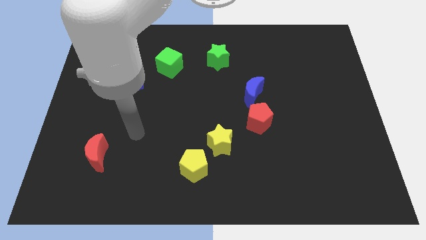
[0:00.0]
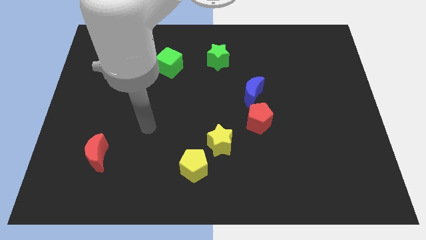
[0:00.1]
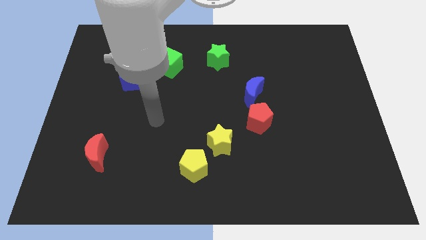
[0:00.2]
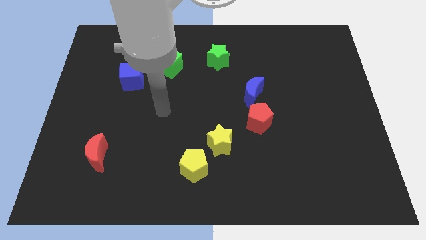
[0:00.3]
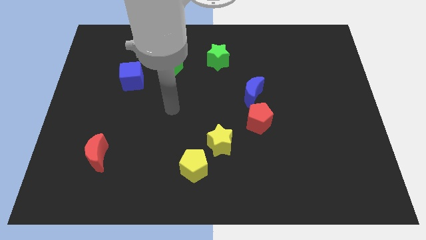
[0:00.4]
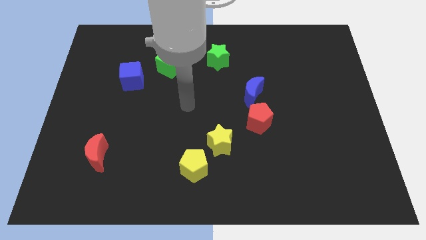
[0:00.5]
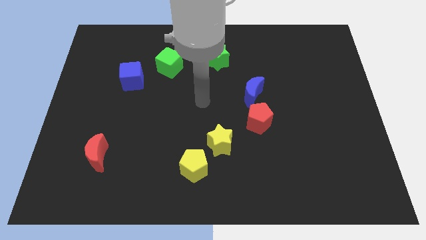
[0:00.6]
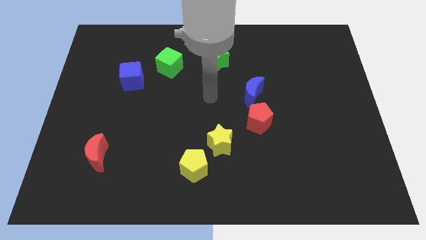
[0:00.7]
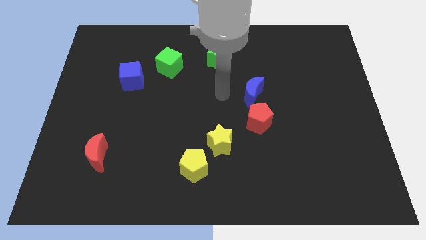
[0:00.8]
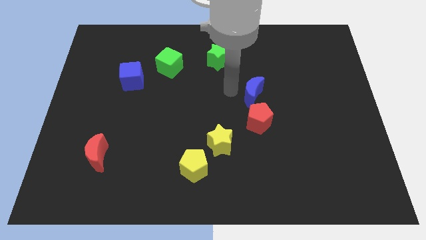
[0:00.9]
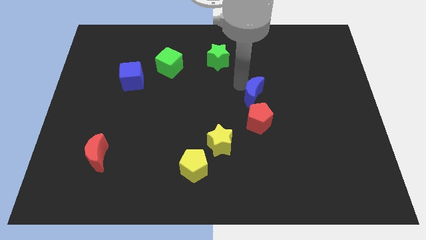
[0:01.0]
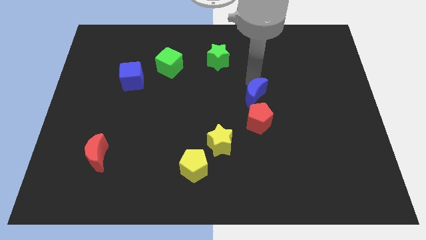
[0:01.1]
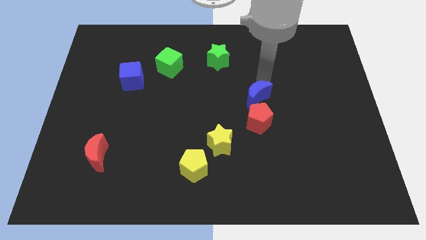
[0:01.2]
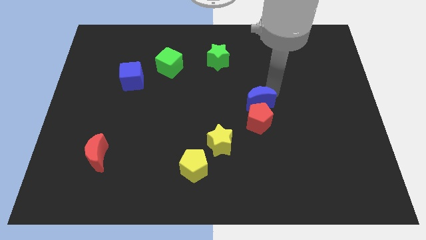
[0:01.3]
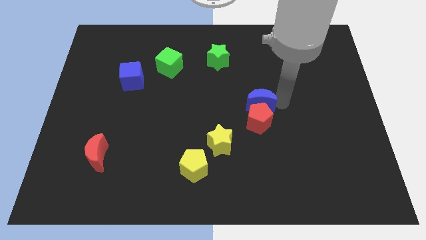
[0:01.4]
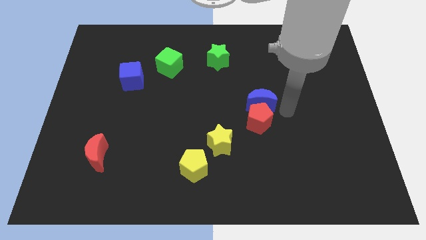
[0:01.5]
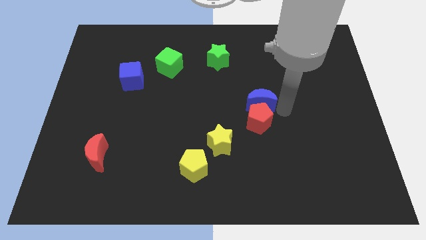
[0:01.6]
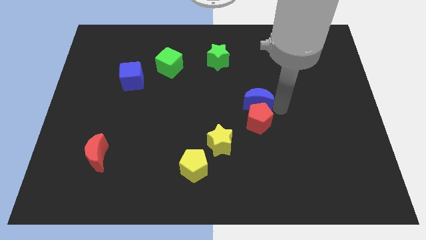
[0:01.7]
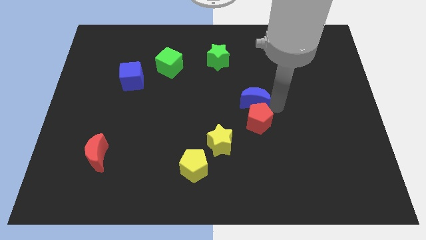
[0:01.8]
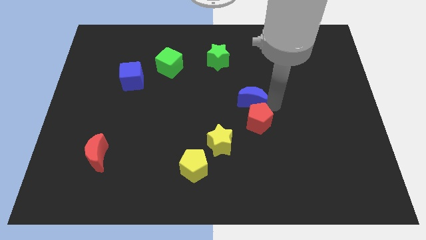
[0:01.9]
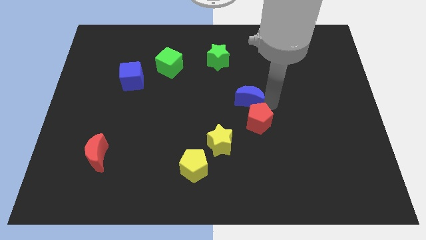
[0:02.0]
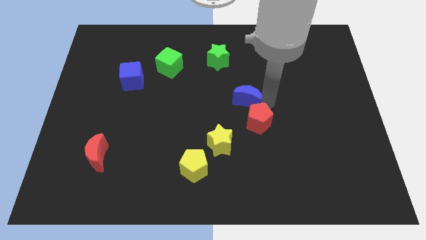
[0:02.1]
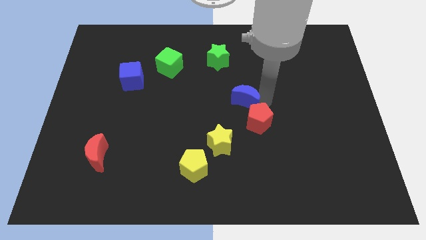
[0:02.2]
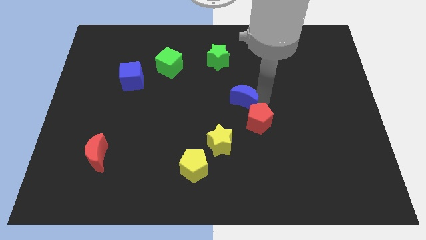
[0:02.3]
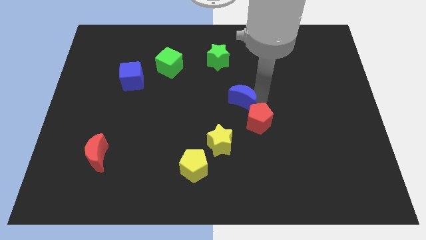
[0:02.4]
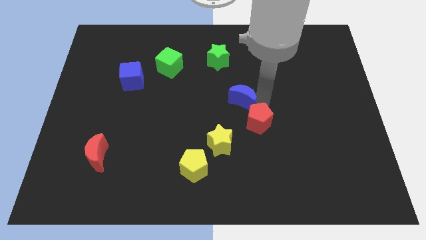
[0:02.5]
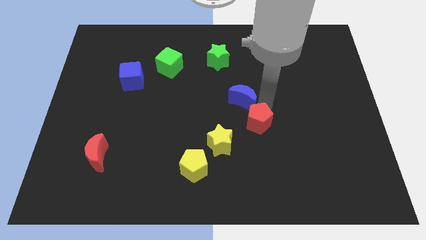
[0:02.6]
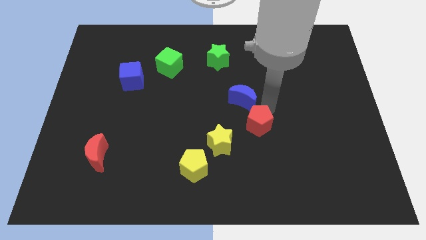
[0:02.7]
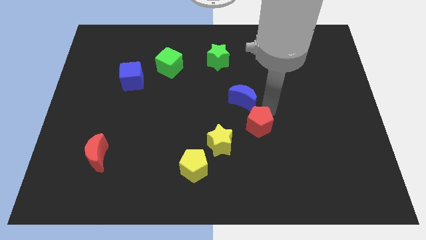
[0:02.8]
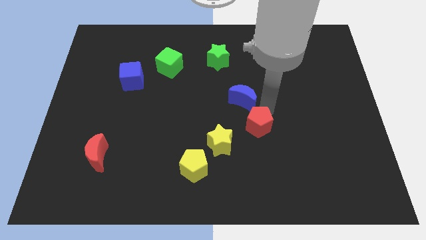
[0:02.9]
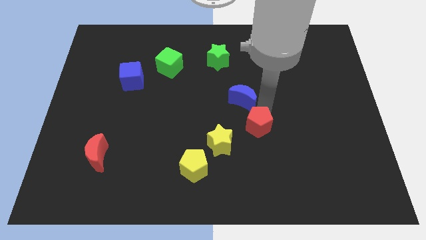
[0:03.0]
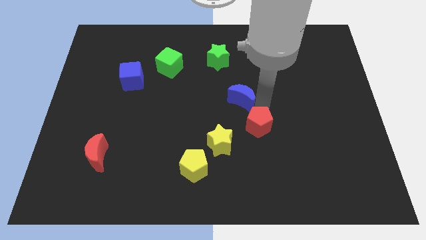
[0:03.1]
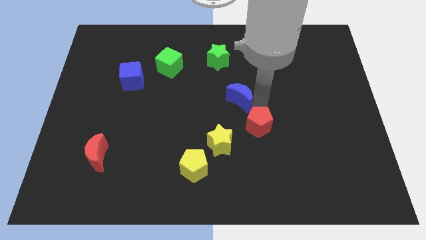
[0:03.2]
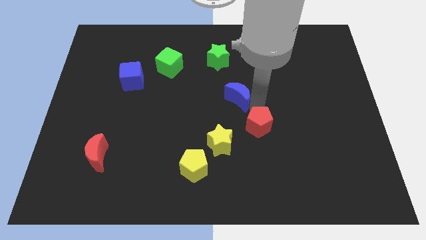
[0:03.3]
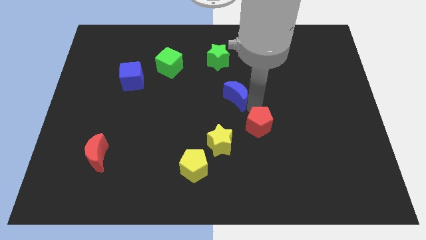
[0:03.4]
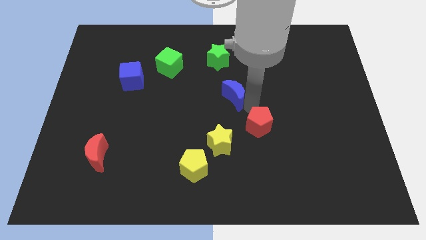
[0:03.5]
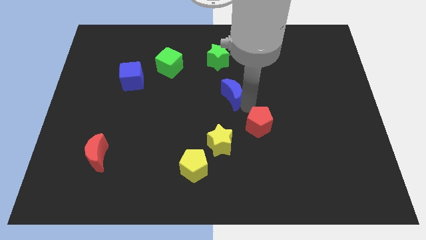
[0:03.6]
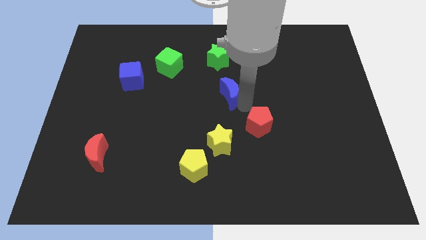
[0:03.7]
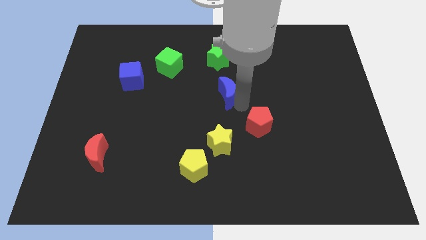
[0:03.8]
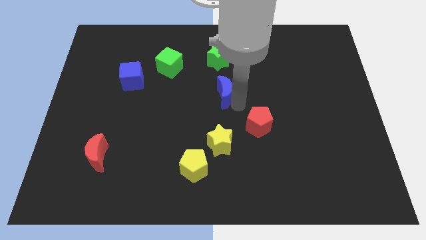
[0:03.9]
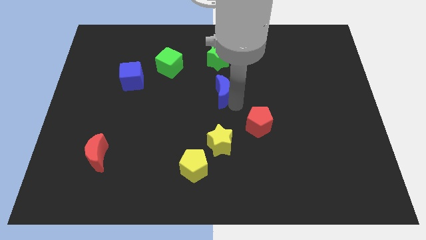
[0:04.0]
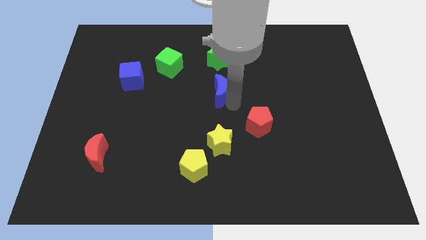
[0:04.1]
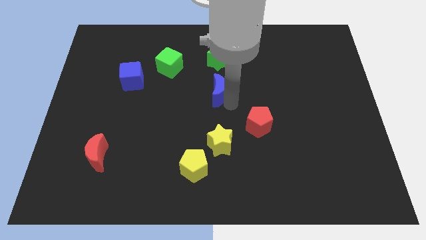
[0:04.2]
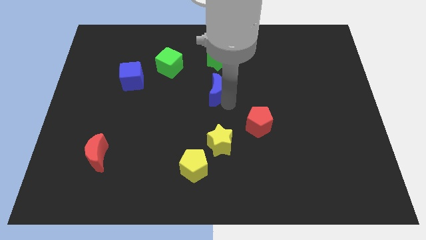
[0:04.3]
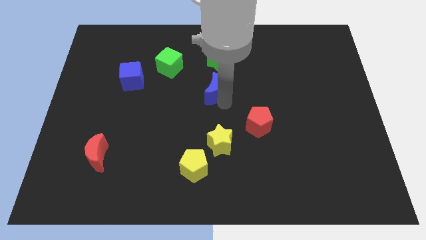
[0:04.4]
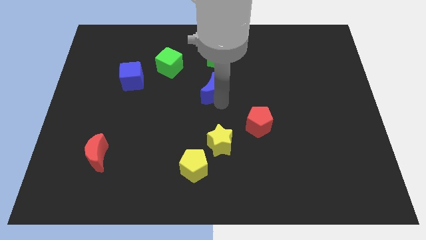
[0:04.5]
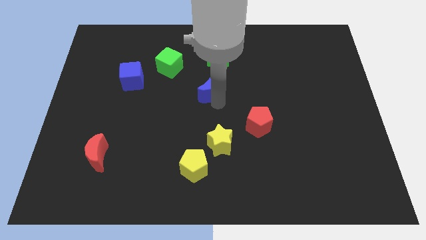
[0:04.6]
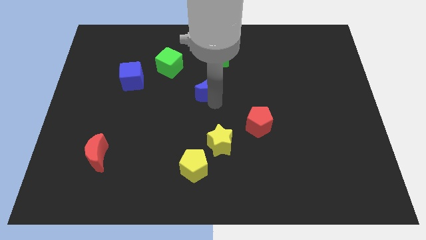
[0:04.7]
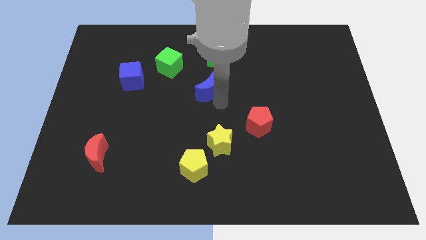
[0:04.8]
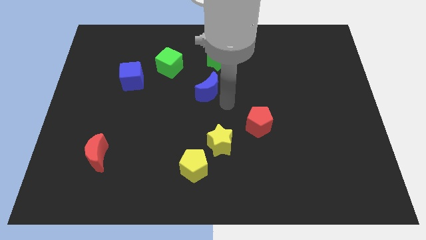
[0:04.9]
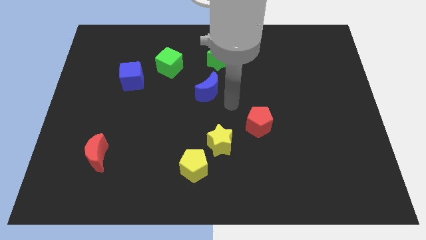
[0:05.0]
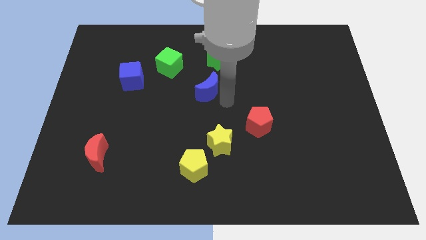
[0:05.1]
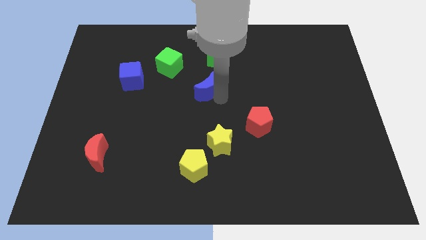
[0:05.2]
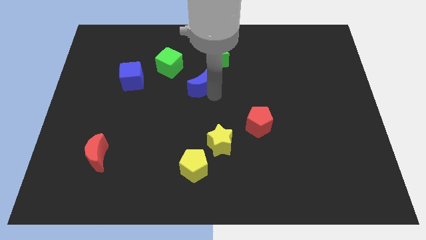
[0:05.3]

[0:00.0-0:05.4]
put the blue moon to the bottom right side of the green cube

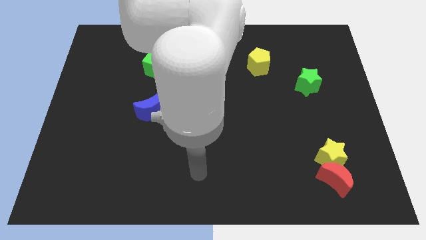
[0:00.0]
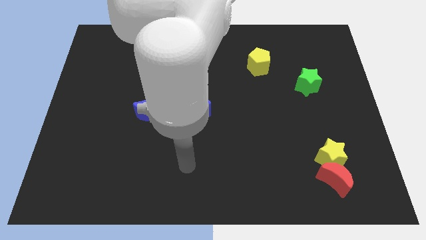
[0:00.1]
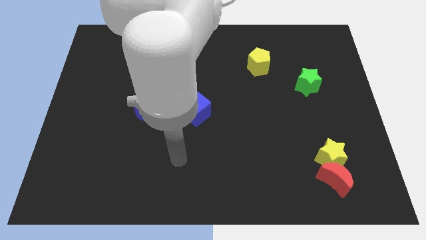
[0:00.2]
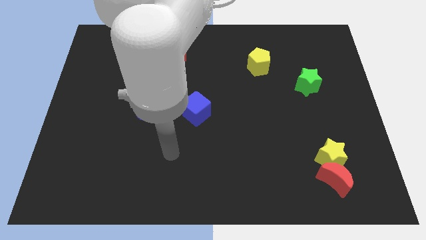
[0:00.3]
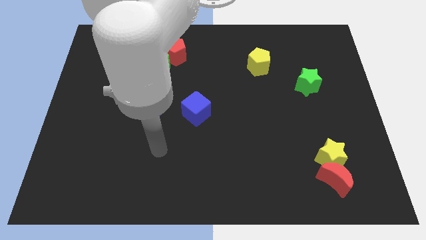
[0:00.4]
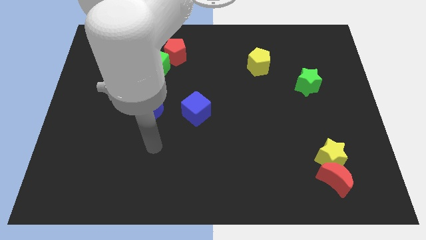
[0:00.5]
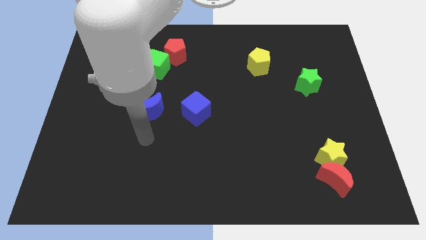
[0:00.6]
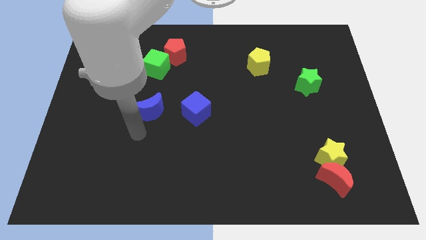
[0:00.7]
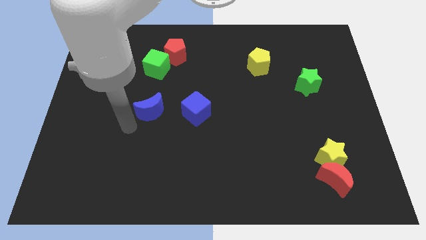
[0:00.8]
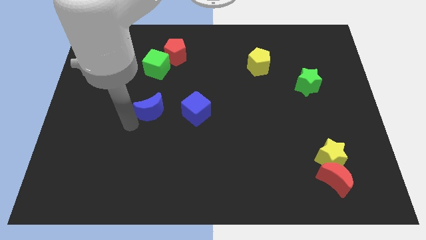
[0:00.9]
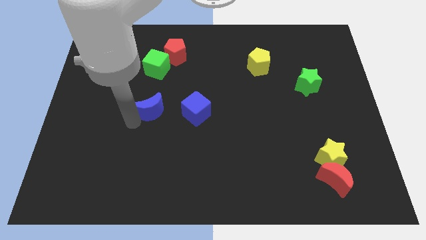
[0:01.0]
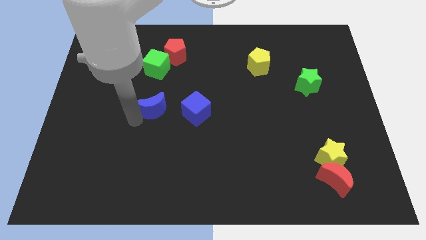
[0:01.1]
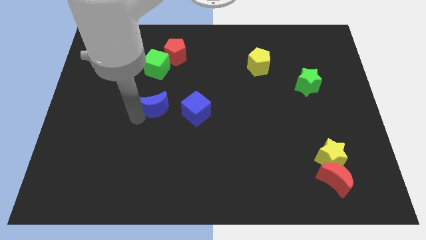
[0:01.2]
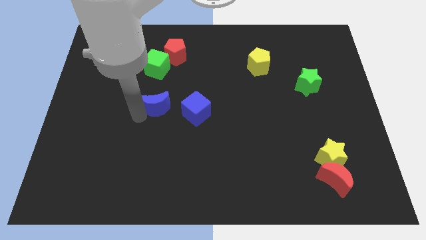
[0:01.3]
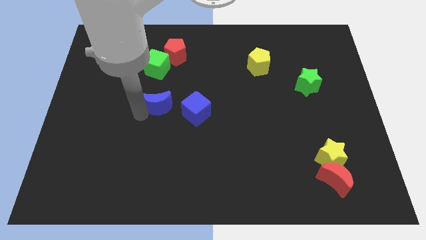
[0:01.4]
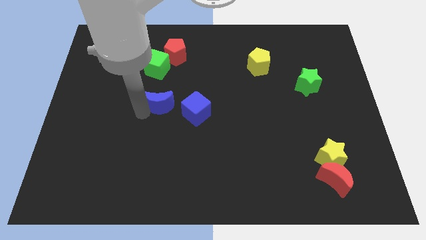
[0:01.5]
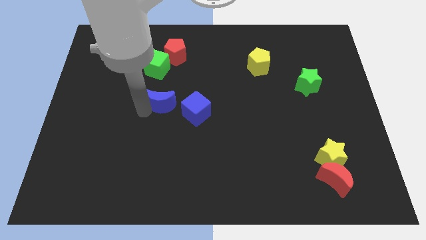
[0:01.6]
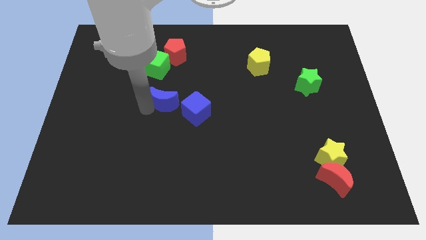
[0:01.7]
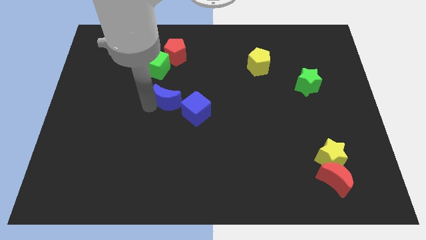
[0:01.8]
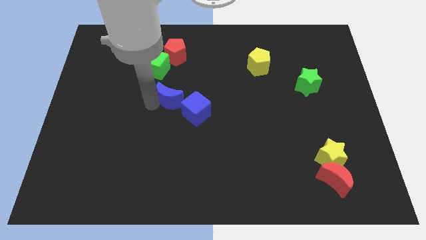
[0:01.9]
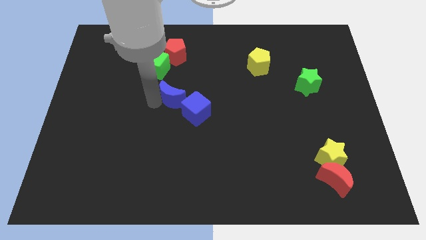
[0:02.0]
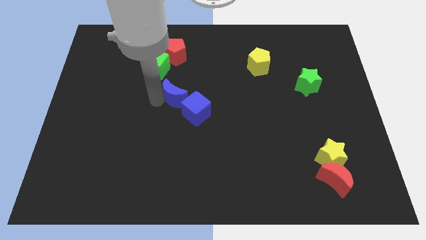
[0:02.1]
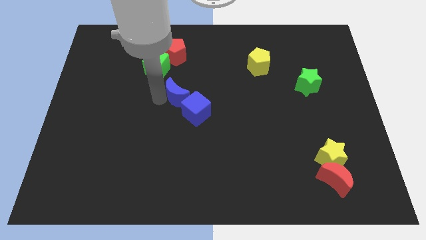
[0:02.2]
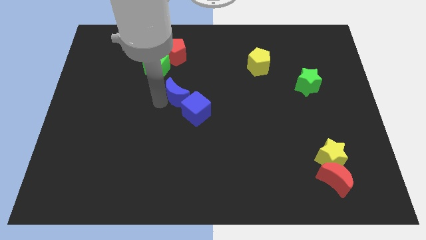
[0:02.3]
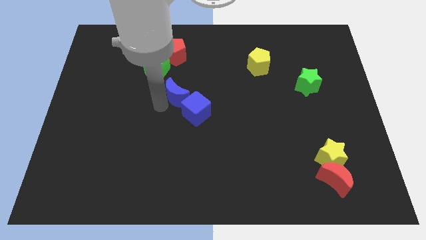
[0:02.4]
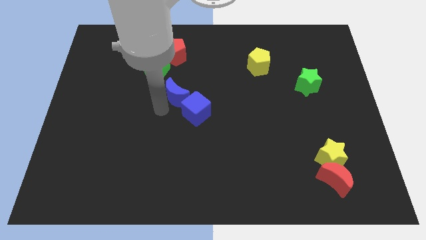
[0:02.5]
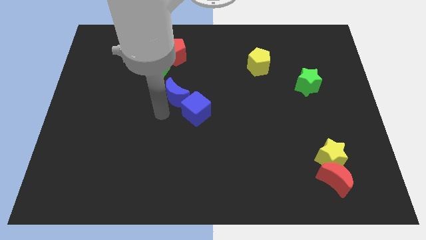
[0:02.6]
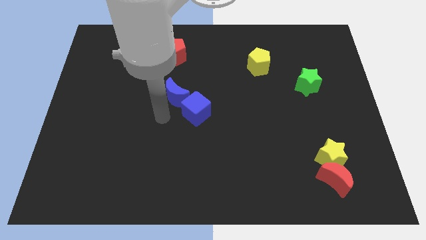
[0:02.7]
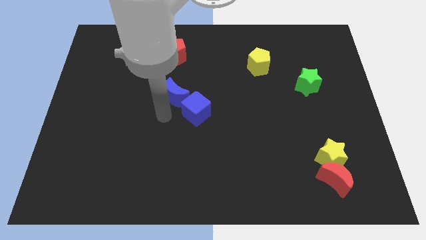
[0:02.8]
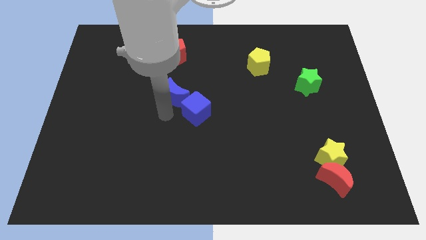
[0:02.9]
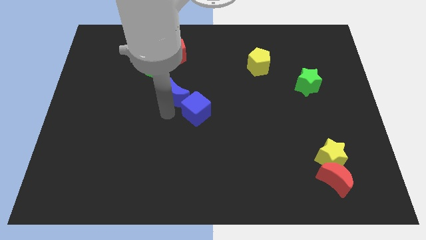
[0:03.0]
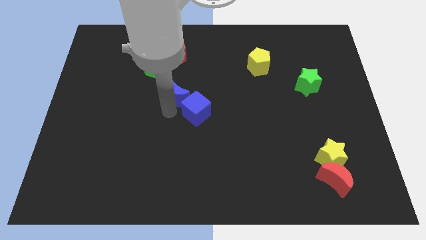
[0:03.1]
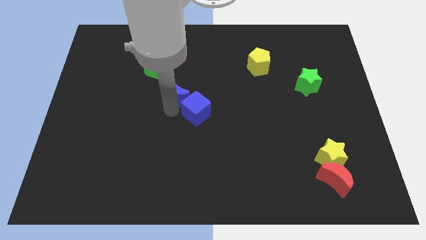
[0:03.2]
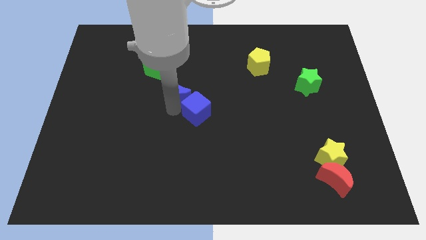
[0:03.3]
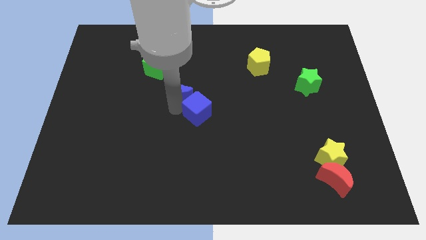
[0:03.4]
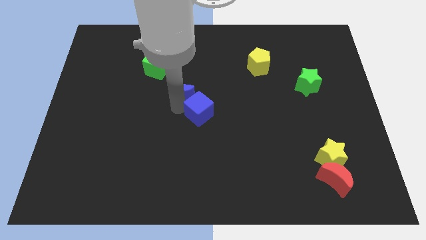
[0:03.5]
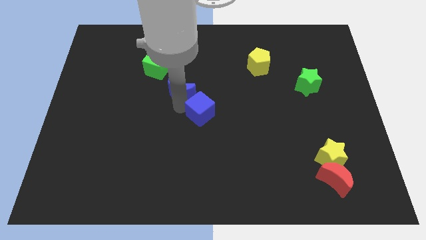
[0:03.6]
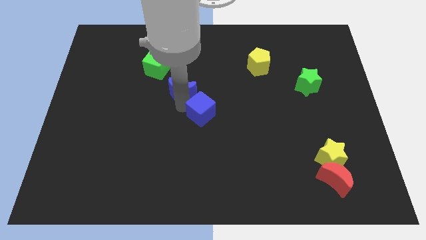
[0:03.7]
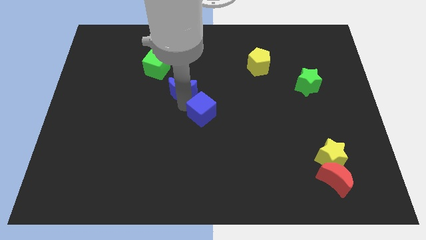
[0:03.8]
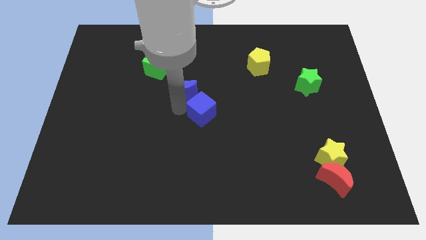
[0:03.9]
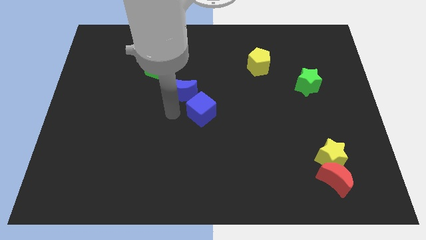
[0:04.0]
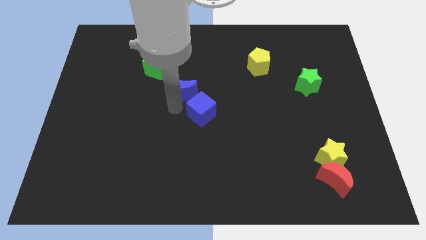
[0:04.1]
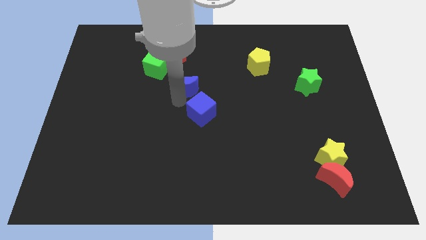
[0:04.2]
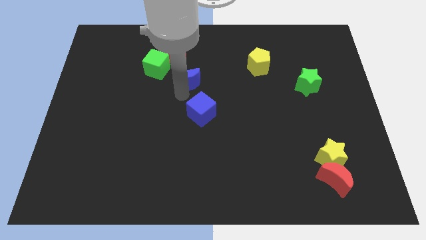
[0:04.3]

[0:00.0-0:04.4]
move the blue moon right of the green cube
